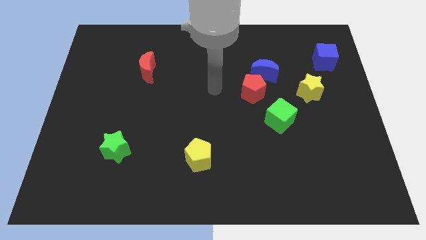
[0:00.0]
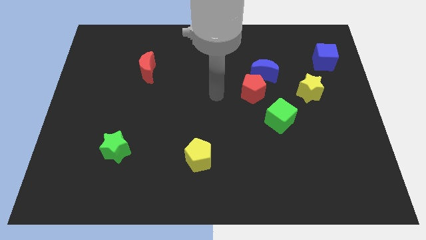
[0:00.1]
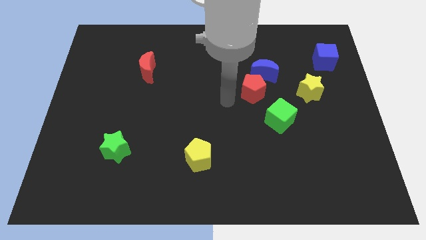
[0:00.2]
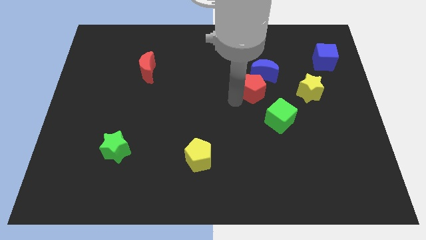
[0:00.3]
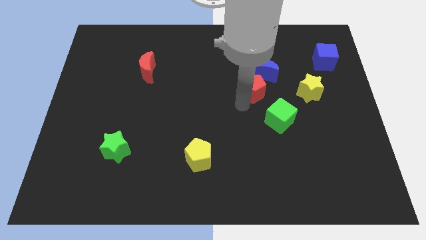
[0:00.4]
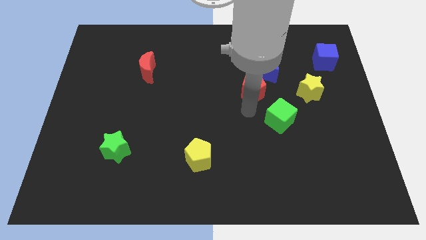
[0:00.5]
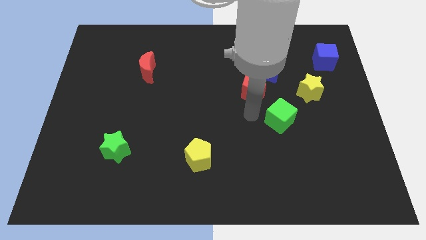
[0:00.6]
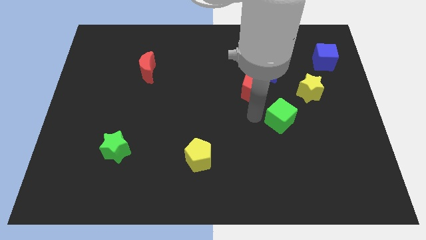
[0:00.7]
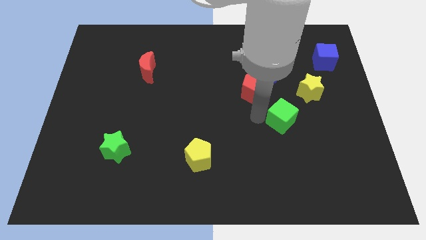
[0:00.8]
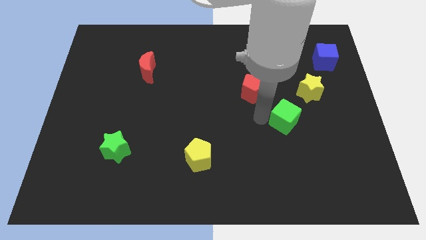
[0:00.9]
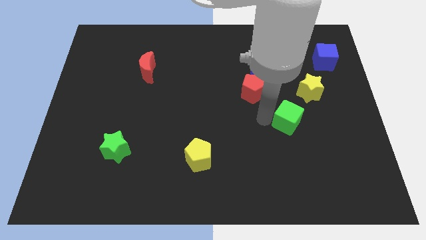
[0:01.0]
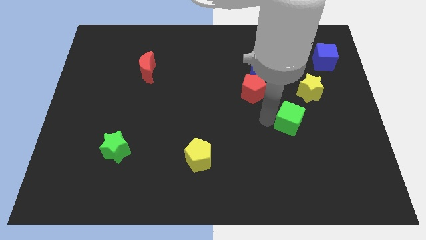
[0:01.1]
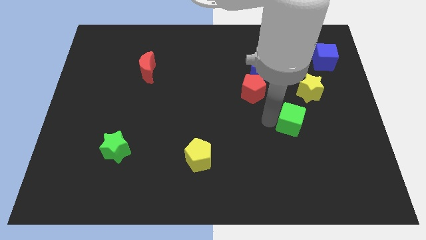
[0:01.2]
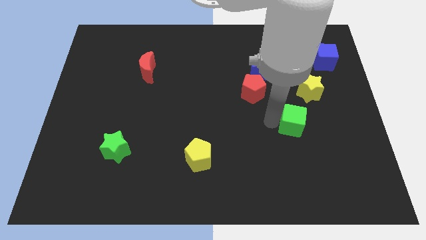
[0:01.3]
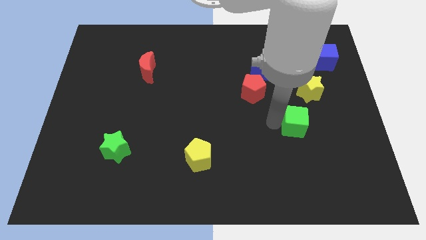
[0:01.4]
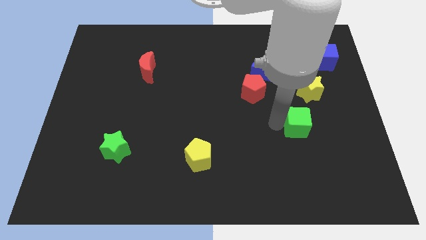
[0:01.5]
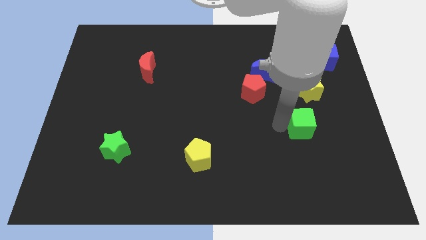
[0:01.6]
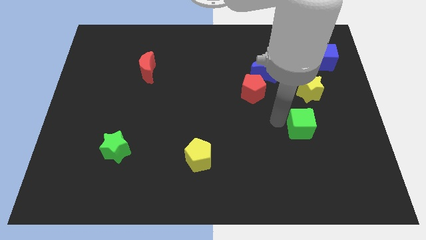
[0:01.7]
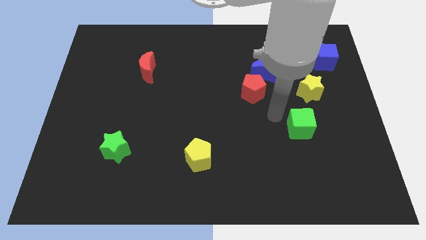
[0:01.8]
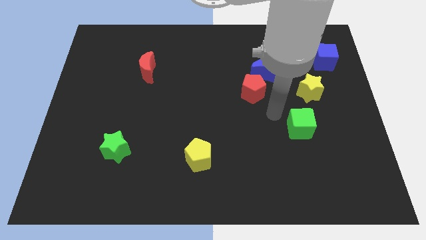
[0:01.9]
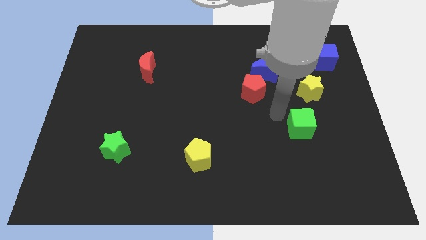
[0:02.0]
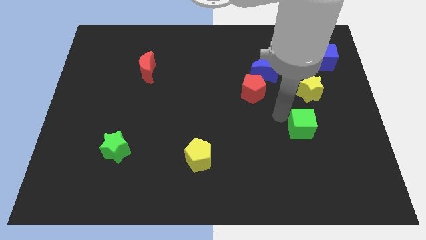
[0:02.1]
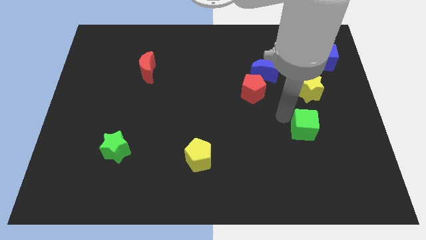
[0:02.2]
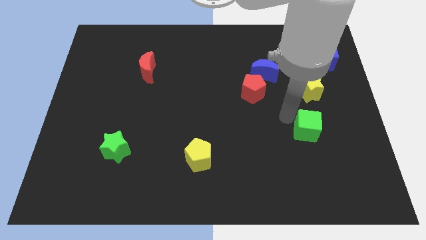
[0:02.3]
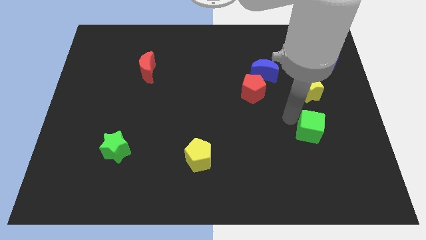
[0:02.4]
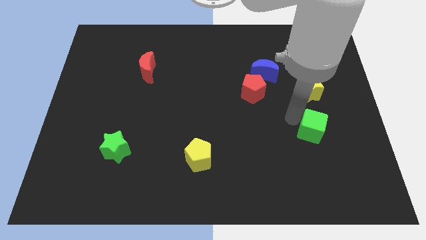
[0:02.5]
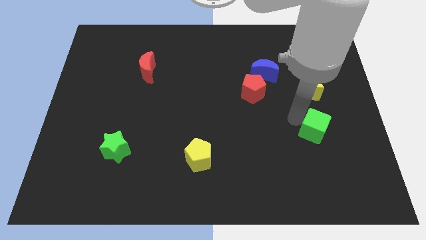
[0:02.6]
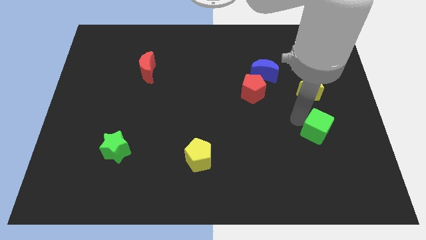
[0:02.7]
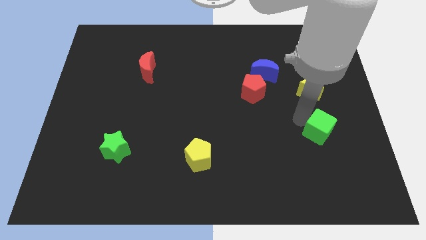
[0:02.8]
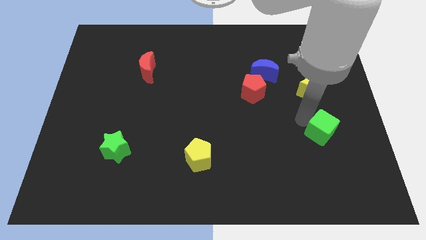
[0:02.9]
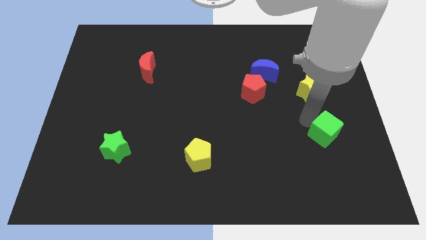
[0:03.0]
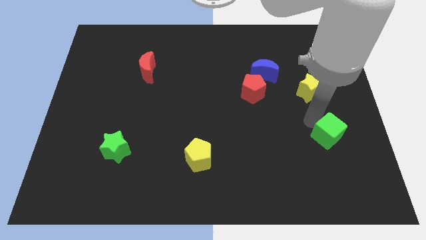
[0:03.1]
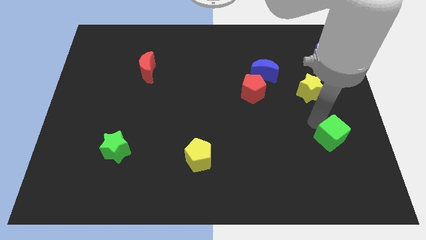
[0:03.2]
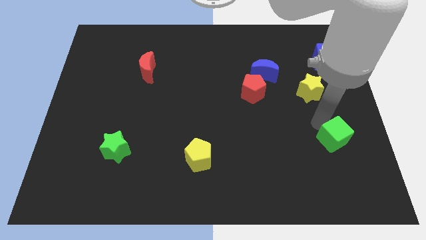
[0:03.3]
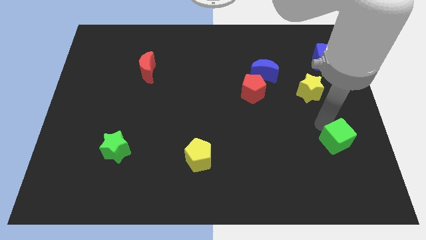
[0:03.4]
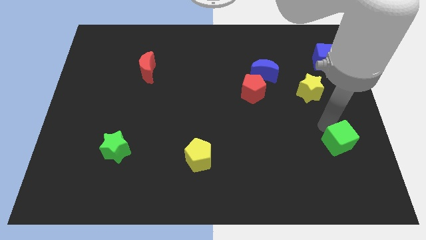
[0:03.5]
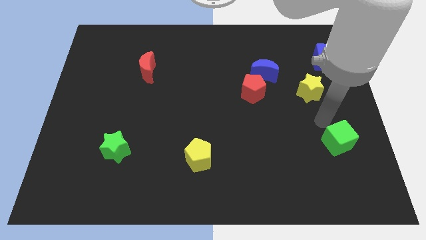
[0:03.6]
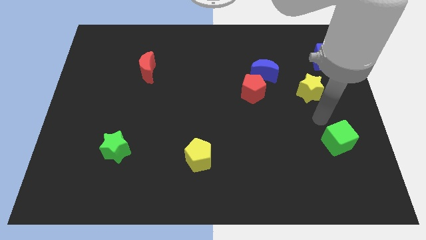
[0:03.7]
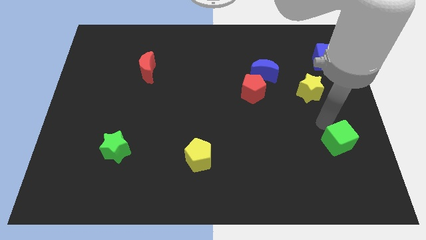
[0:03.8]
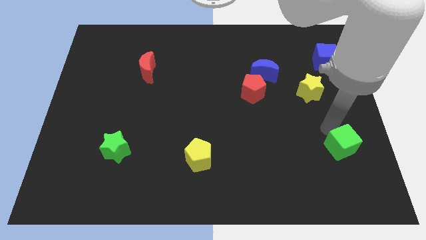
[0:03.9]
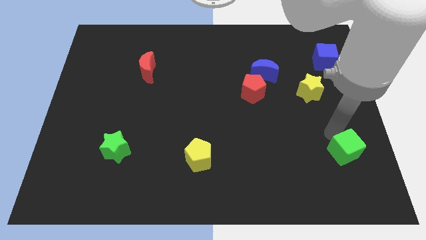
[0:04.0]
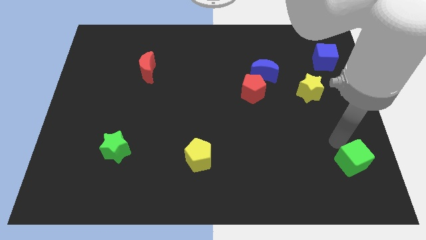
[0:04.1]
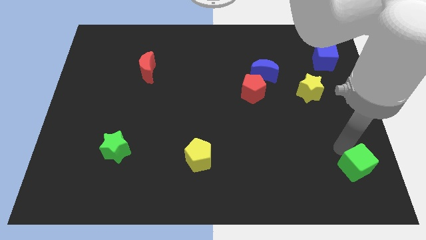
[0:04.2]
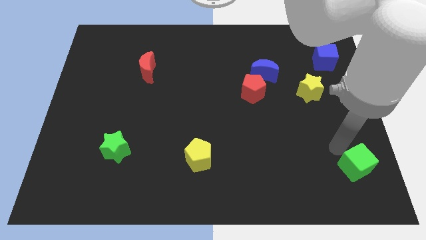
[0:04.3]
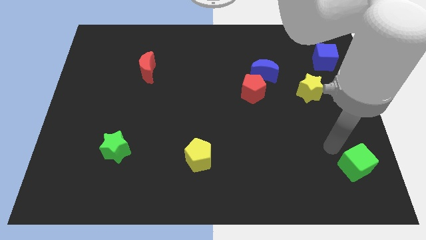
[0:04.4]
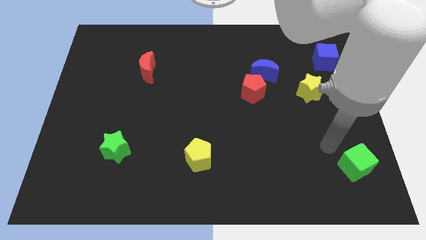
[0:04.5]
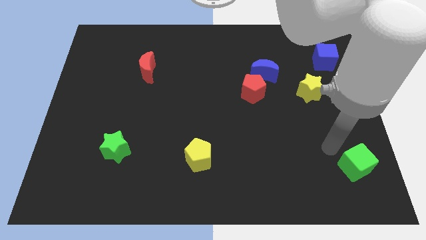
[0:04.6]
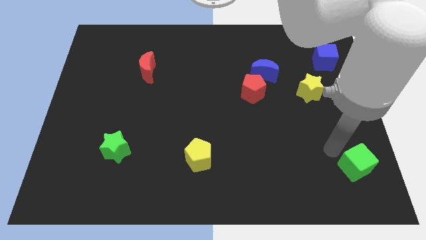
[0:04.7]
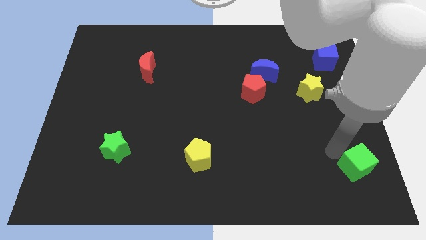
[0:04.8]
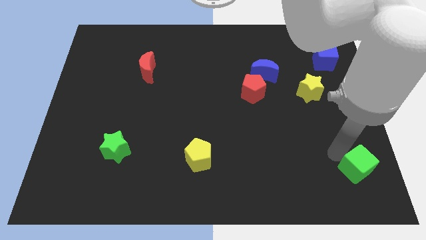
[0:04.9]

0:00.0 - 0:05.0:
push the green cube to the bottom right corner

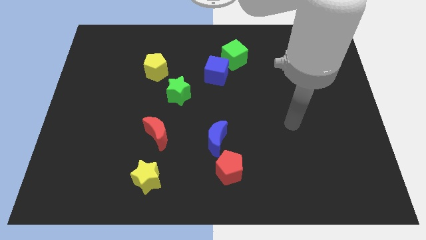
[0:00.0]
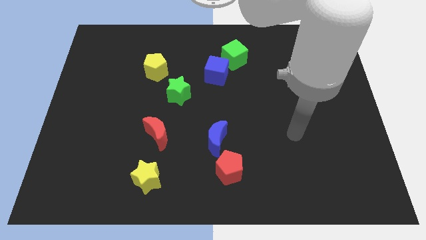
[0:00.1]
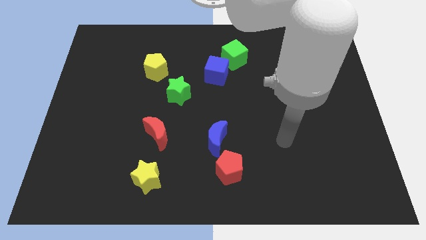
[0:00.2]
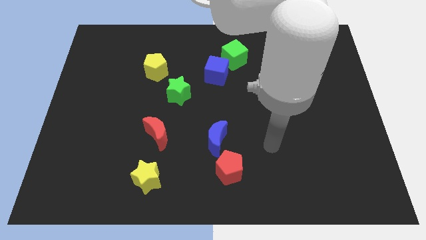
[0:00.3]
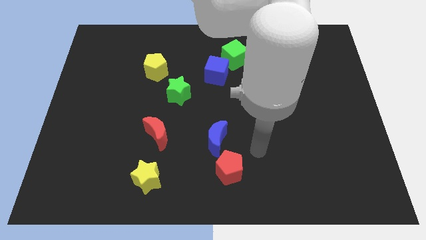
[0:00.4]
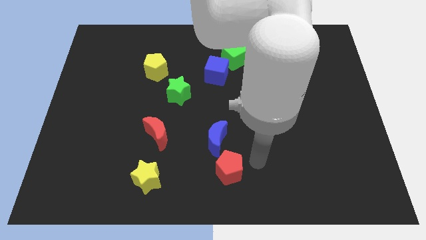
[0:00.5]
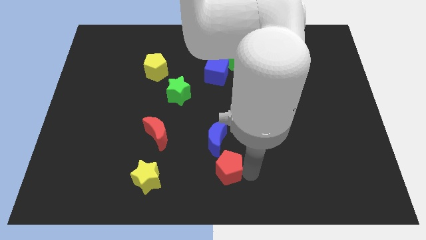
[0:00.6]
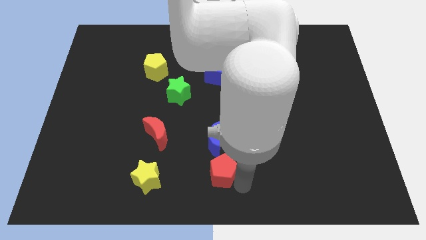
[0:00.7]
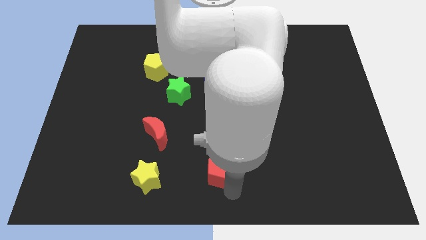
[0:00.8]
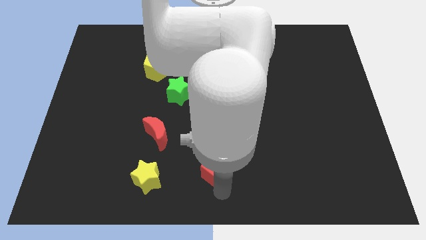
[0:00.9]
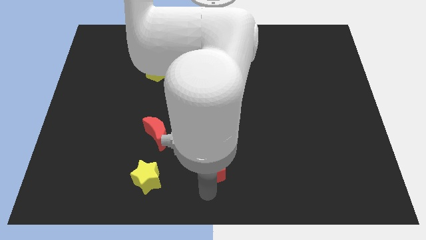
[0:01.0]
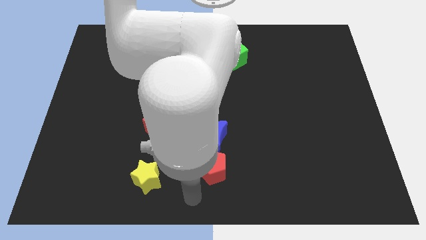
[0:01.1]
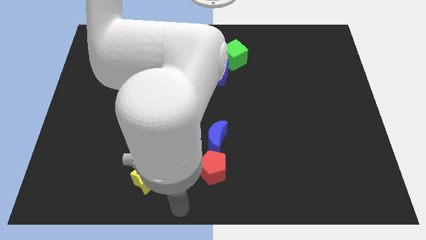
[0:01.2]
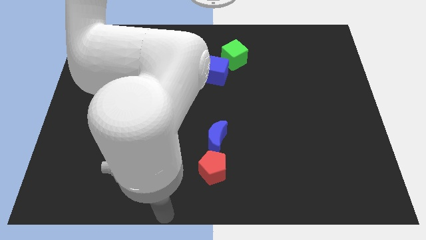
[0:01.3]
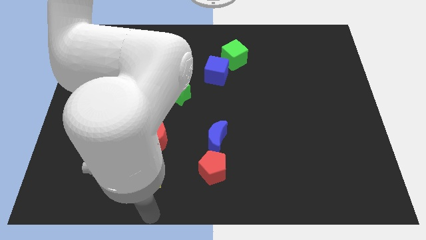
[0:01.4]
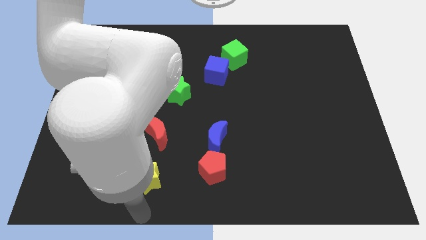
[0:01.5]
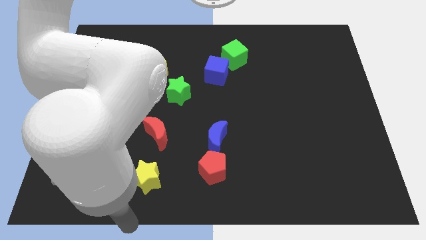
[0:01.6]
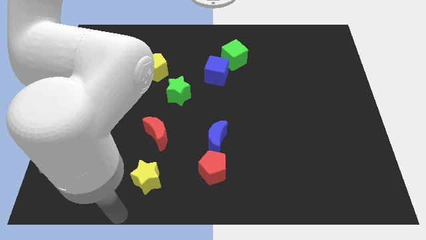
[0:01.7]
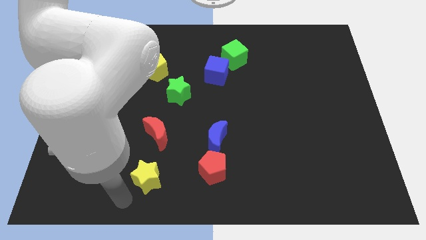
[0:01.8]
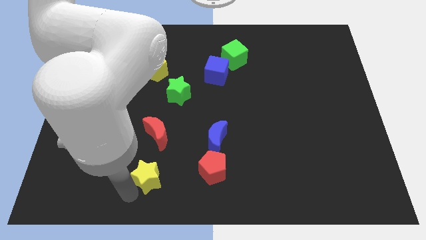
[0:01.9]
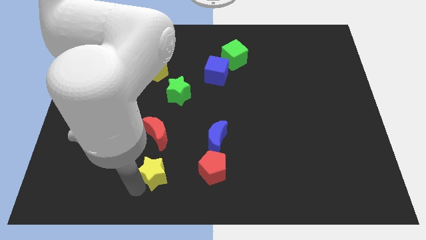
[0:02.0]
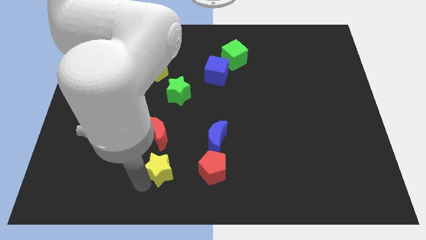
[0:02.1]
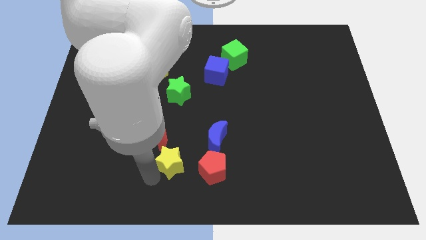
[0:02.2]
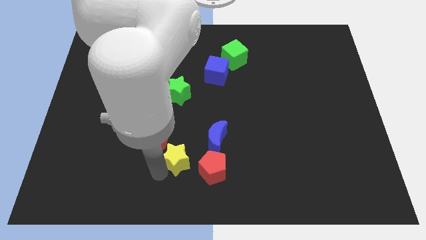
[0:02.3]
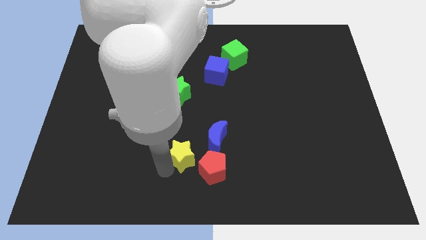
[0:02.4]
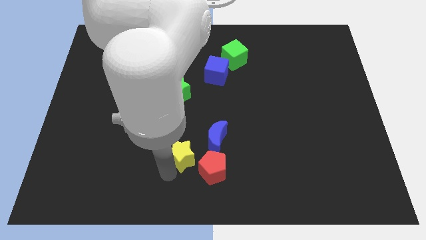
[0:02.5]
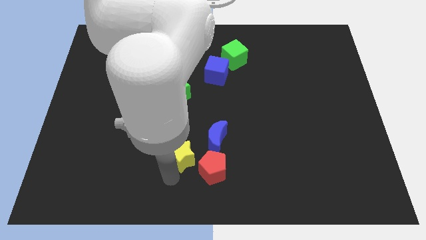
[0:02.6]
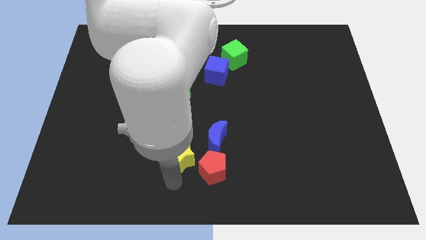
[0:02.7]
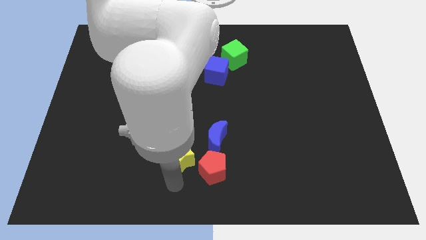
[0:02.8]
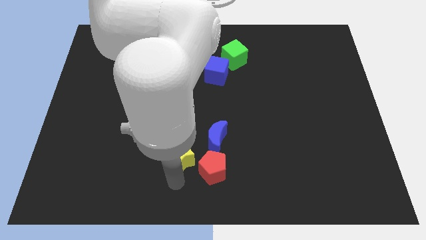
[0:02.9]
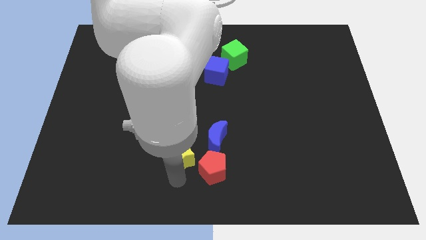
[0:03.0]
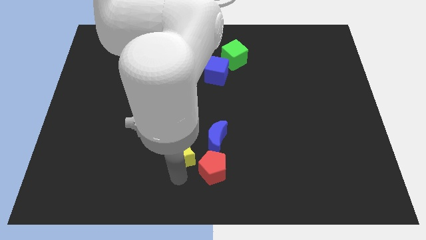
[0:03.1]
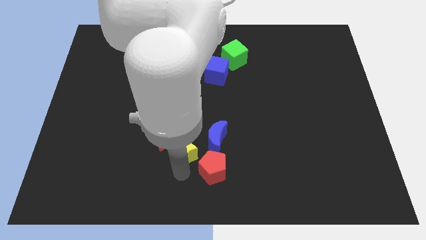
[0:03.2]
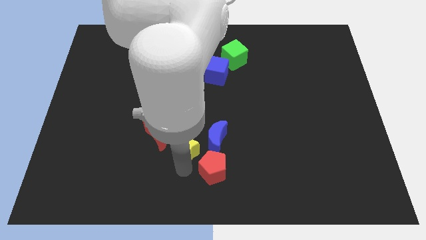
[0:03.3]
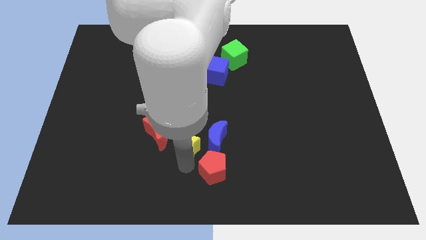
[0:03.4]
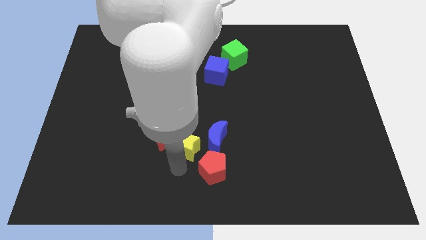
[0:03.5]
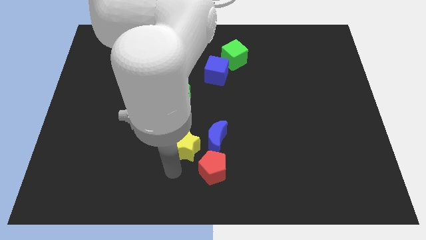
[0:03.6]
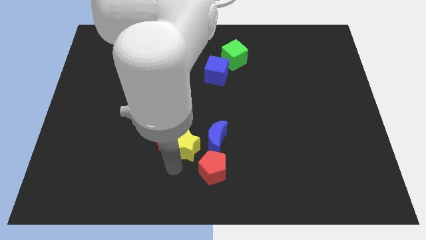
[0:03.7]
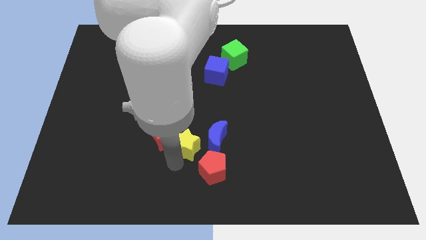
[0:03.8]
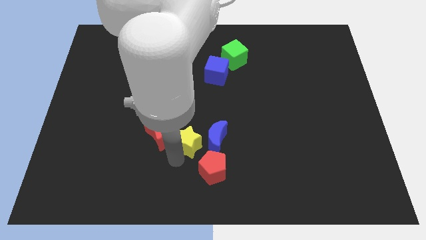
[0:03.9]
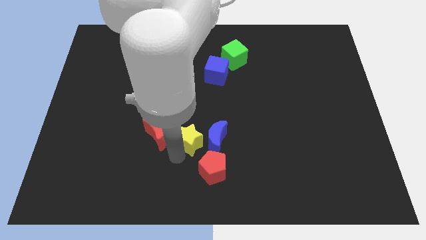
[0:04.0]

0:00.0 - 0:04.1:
push the yellow star to the middle of the board
